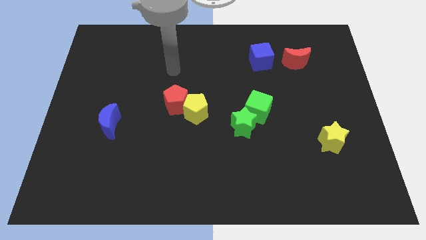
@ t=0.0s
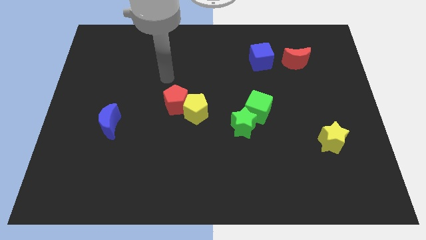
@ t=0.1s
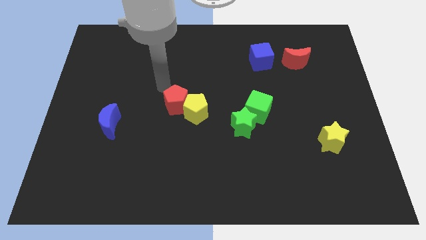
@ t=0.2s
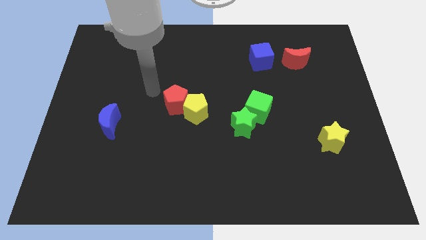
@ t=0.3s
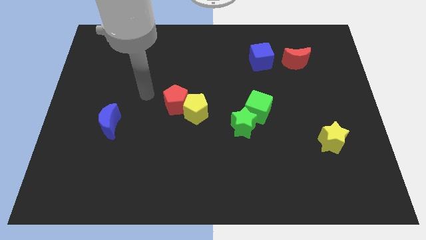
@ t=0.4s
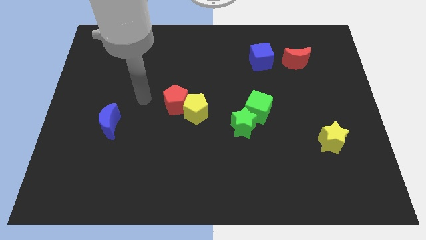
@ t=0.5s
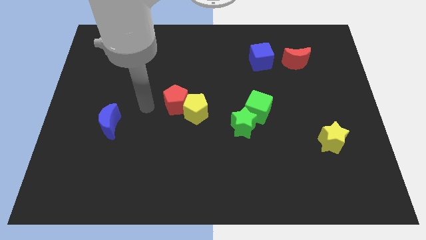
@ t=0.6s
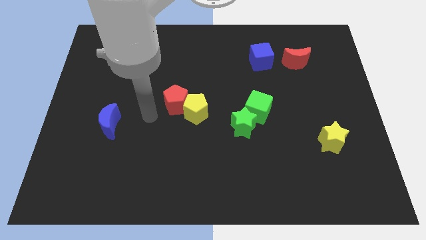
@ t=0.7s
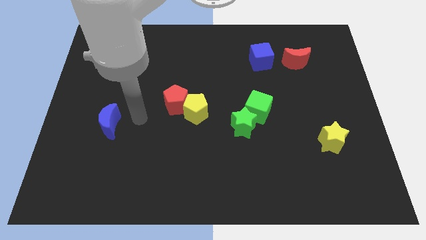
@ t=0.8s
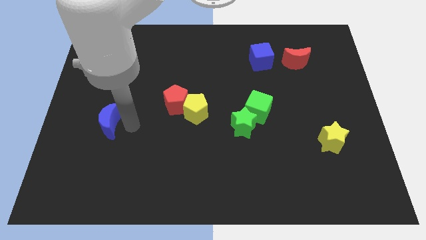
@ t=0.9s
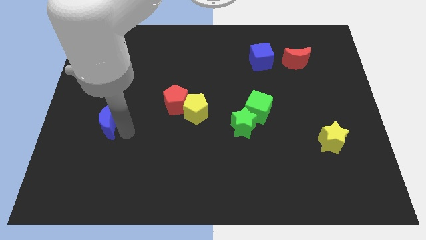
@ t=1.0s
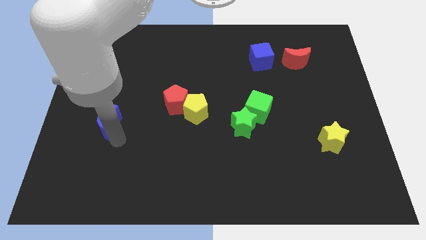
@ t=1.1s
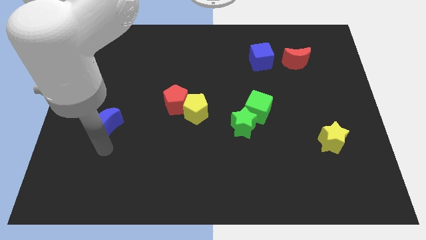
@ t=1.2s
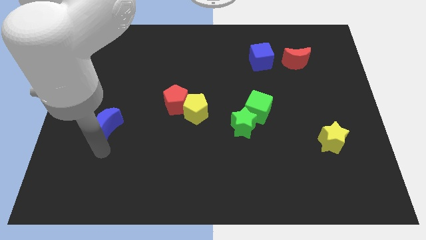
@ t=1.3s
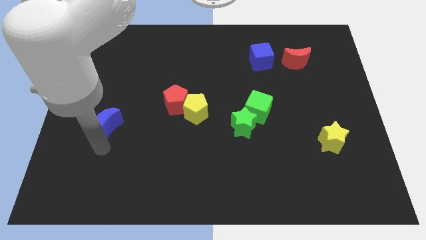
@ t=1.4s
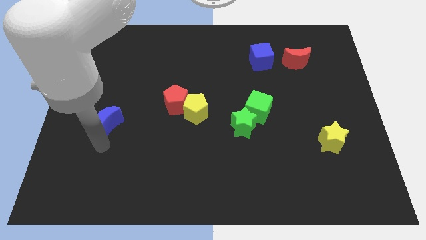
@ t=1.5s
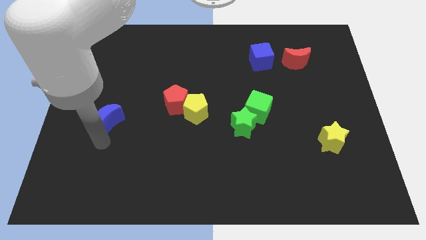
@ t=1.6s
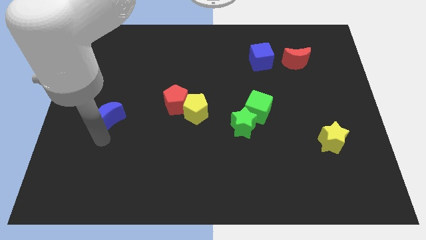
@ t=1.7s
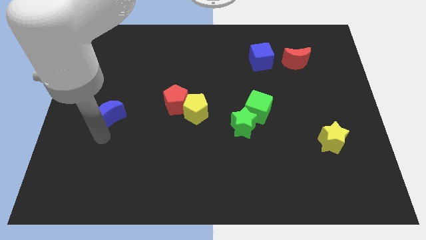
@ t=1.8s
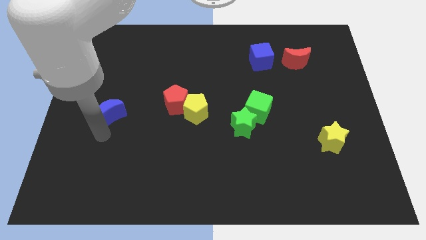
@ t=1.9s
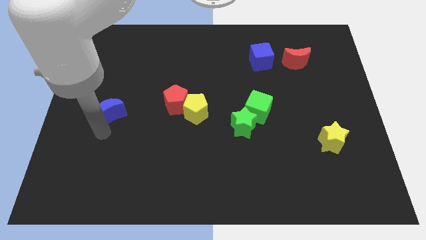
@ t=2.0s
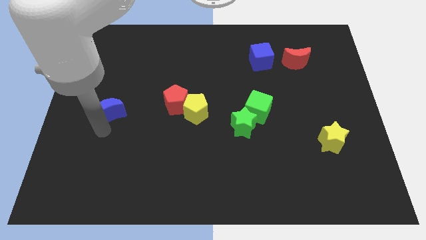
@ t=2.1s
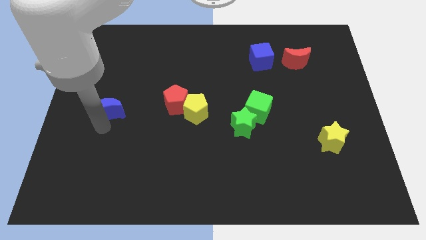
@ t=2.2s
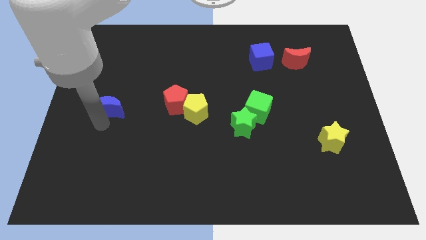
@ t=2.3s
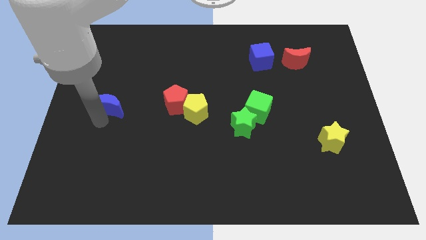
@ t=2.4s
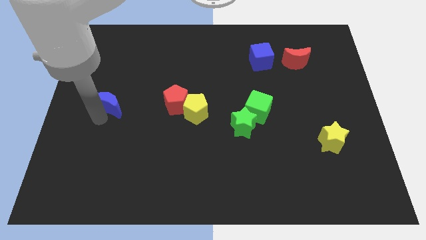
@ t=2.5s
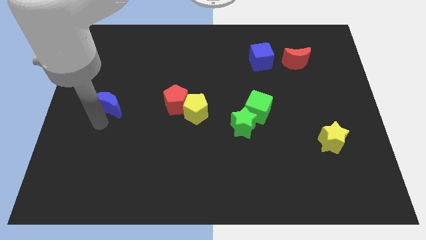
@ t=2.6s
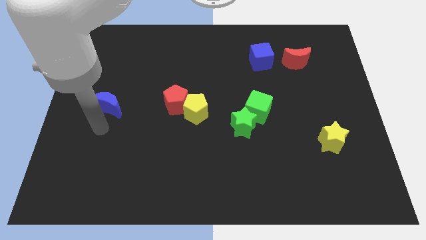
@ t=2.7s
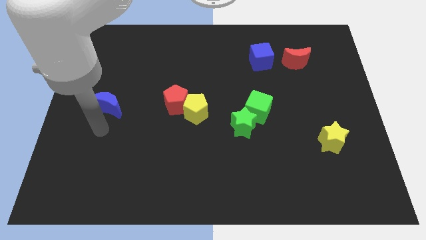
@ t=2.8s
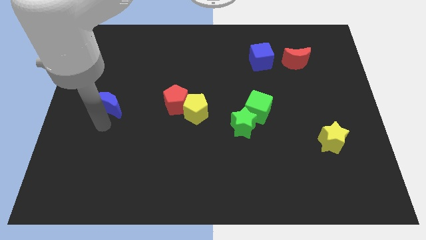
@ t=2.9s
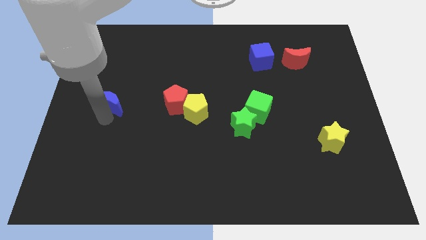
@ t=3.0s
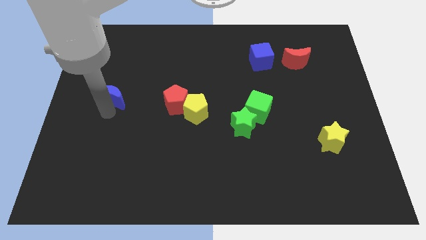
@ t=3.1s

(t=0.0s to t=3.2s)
slightly push the blue moon up

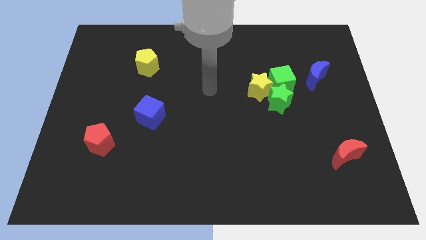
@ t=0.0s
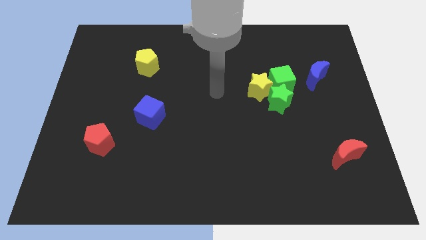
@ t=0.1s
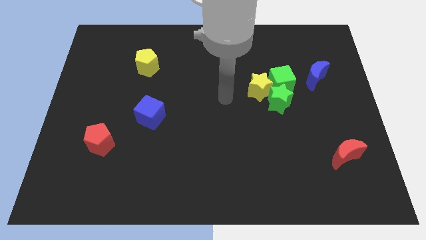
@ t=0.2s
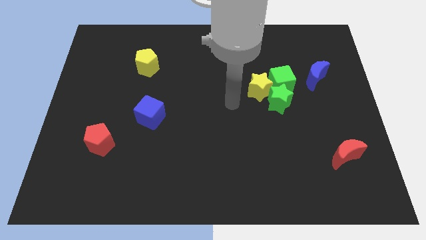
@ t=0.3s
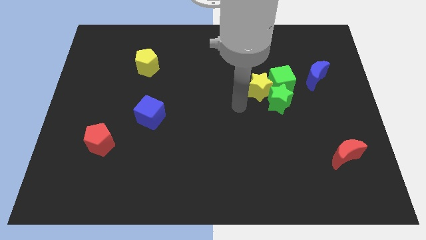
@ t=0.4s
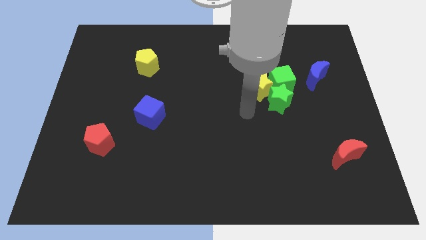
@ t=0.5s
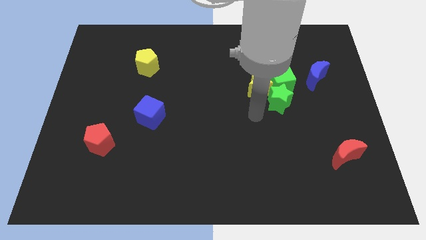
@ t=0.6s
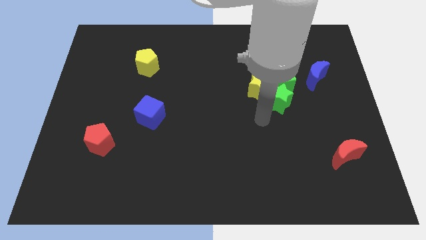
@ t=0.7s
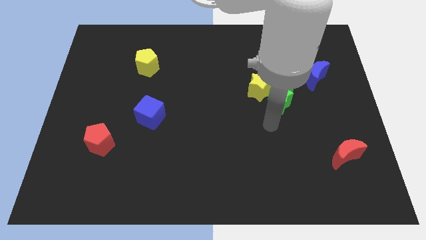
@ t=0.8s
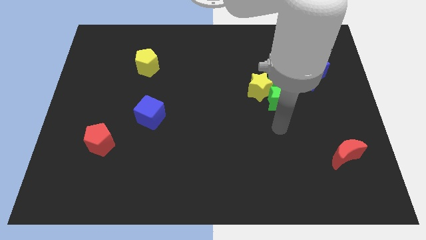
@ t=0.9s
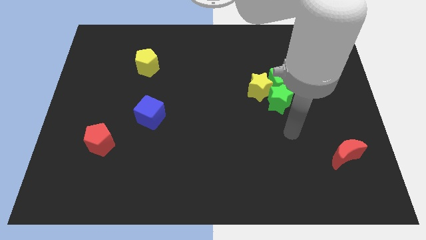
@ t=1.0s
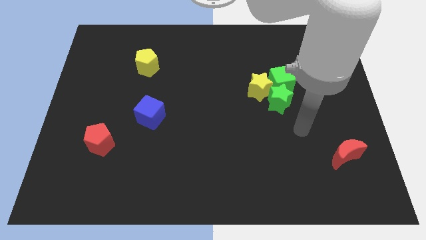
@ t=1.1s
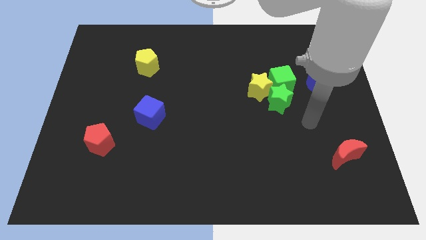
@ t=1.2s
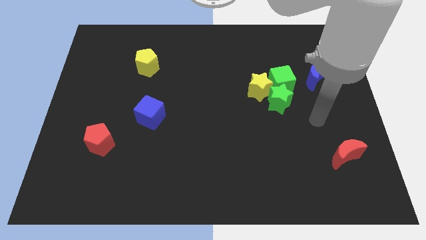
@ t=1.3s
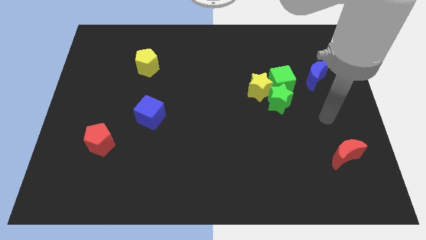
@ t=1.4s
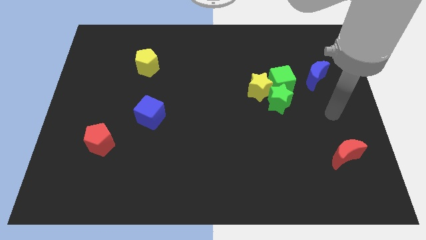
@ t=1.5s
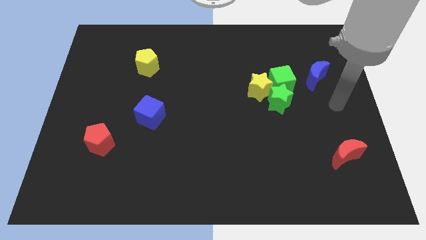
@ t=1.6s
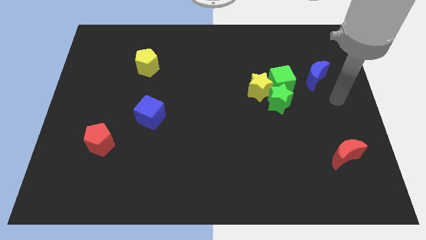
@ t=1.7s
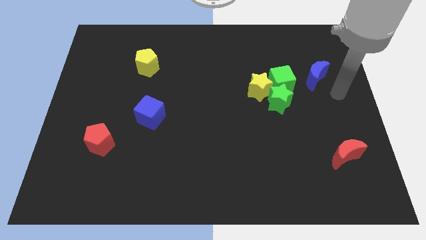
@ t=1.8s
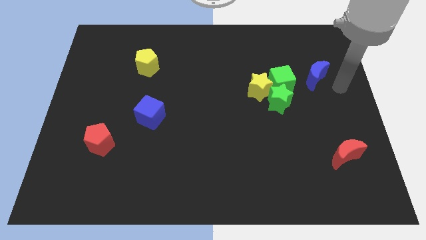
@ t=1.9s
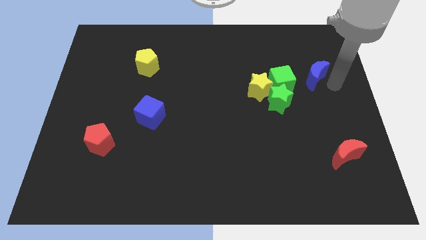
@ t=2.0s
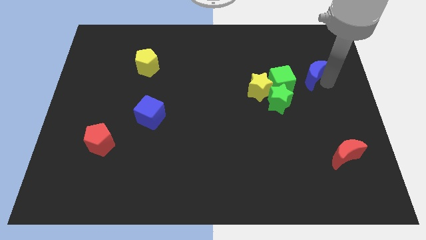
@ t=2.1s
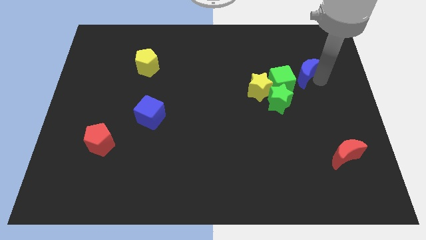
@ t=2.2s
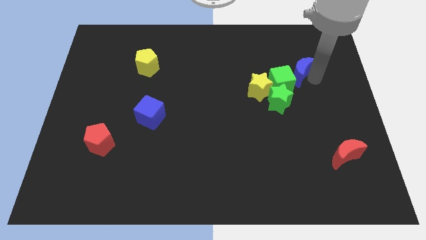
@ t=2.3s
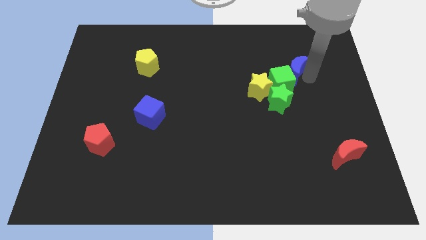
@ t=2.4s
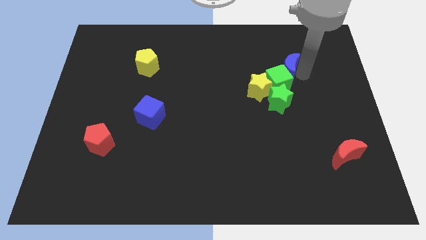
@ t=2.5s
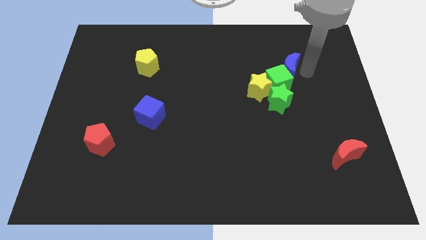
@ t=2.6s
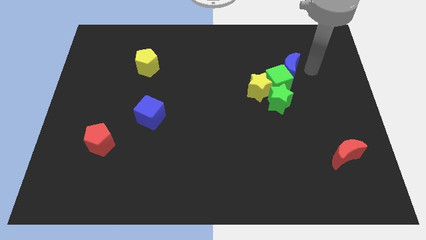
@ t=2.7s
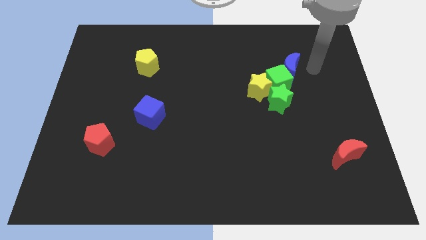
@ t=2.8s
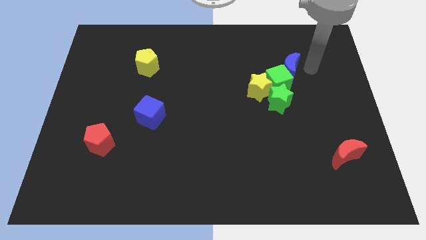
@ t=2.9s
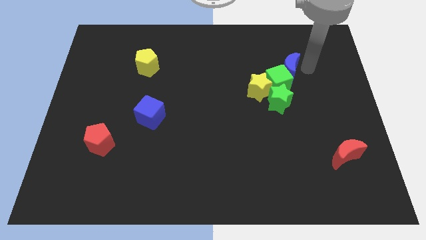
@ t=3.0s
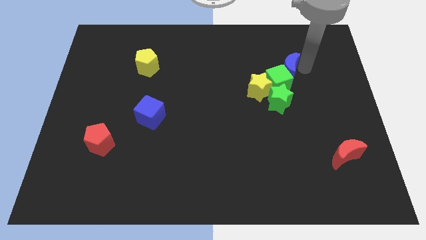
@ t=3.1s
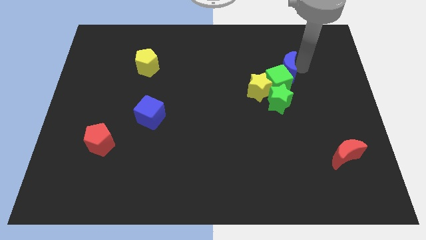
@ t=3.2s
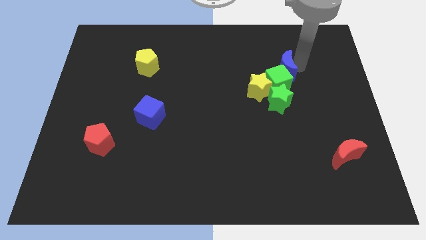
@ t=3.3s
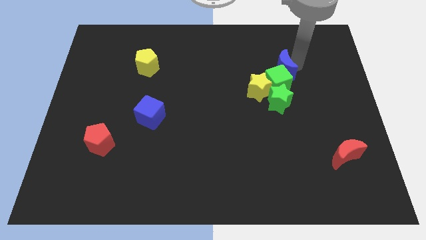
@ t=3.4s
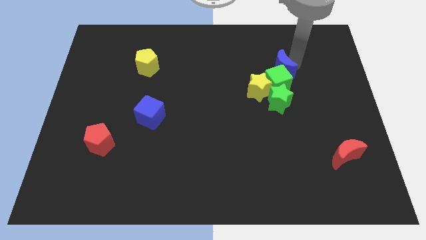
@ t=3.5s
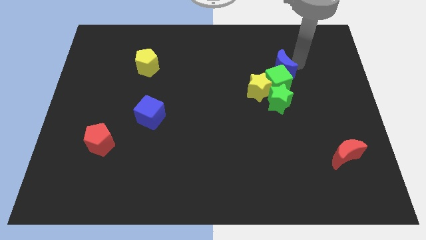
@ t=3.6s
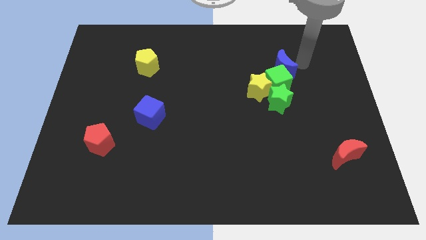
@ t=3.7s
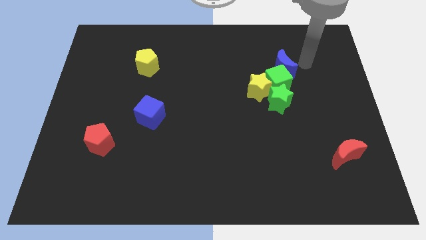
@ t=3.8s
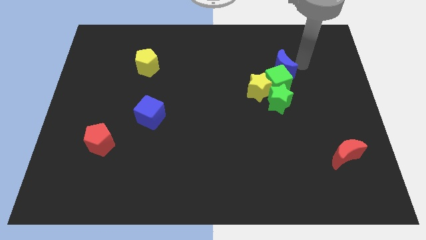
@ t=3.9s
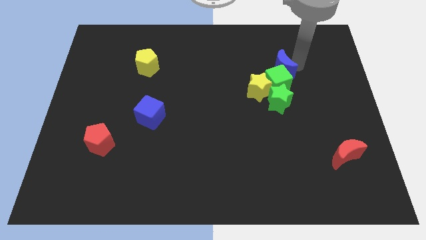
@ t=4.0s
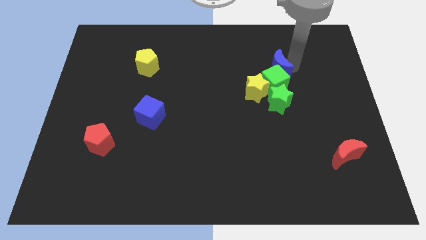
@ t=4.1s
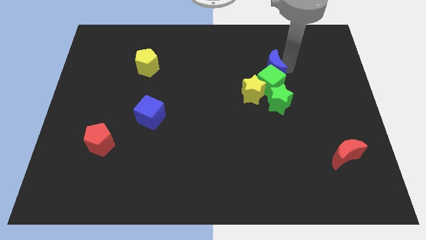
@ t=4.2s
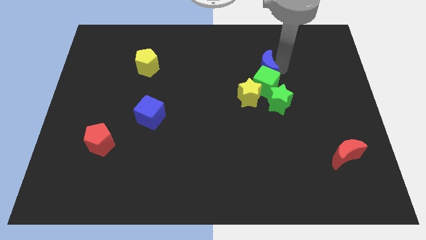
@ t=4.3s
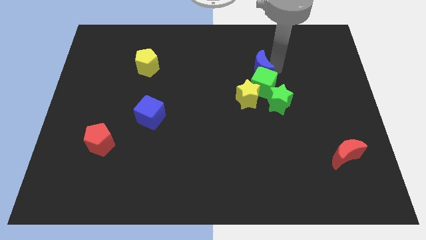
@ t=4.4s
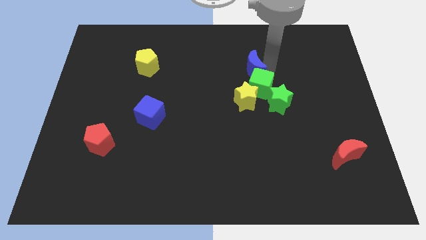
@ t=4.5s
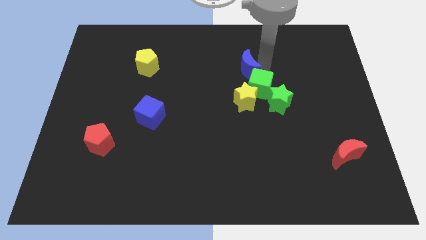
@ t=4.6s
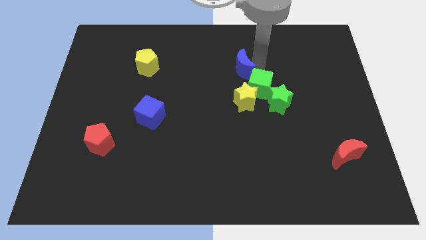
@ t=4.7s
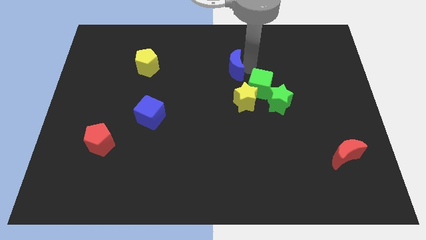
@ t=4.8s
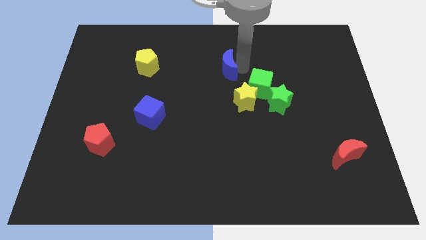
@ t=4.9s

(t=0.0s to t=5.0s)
move the blue moon left
